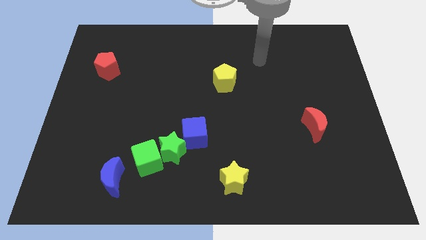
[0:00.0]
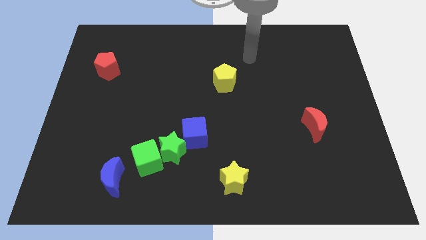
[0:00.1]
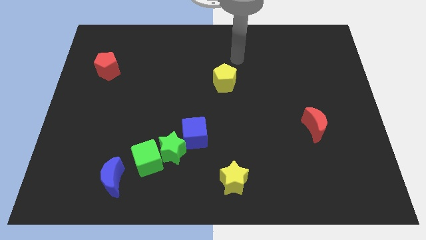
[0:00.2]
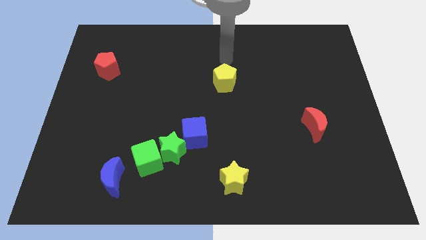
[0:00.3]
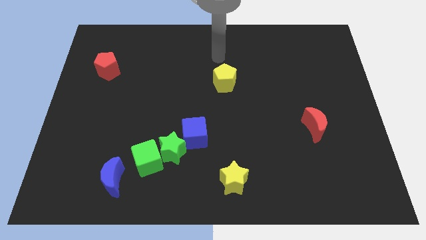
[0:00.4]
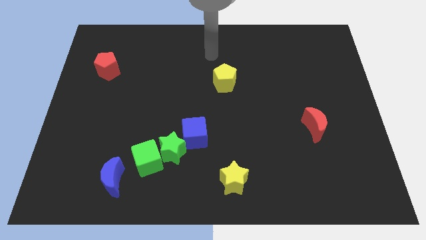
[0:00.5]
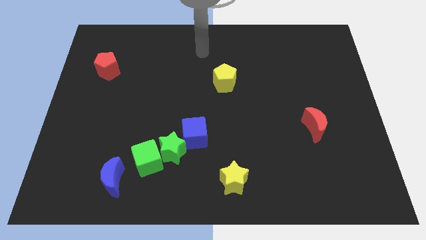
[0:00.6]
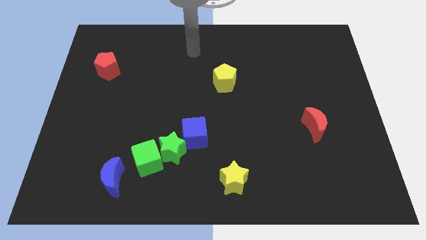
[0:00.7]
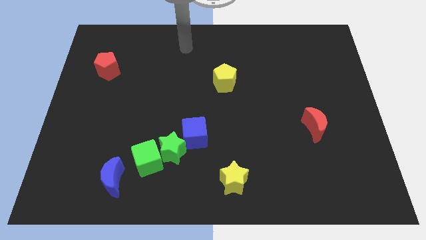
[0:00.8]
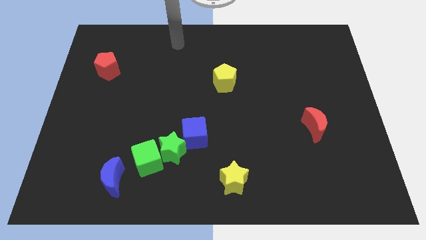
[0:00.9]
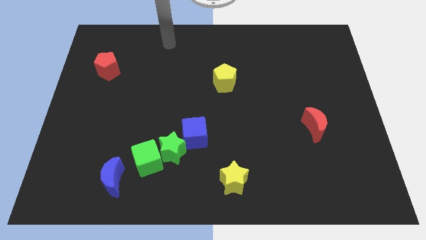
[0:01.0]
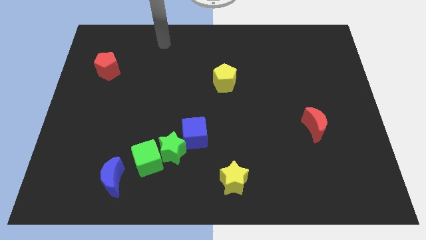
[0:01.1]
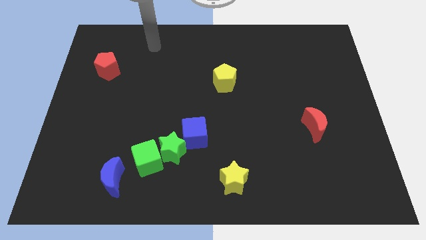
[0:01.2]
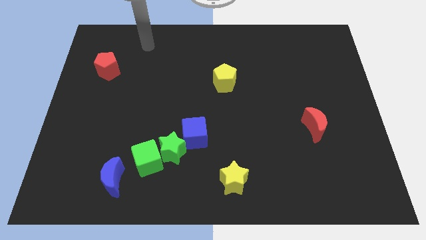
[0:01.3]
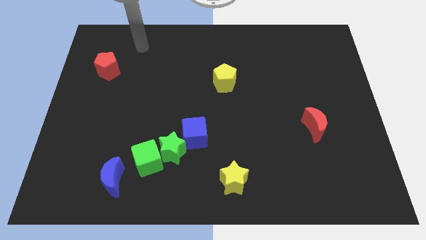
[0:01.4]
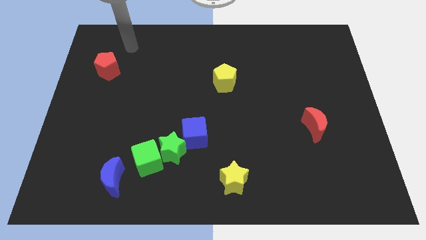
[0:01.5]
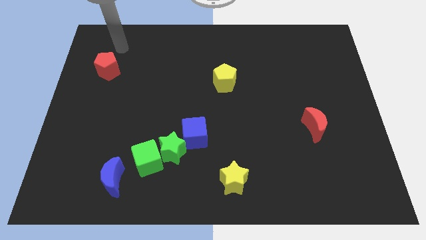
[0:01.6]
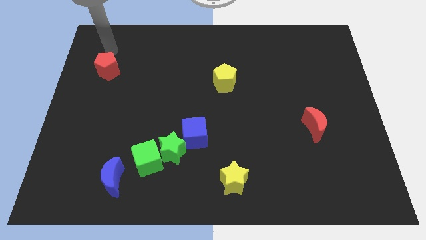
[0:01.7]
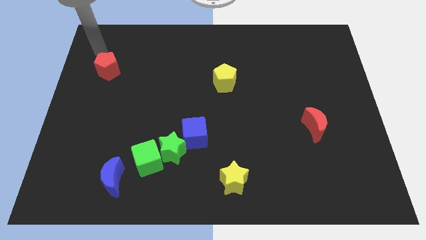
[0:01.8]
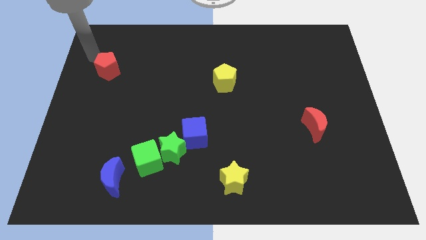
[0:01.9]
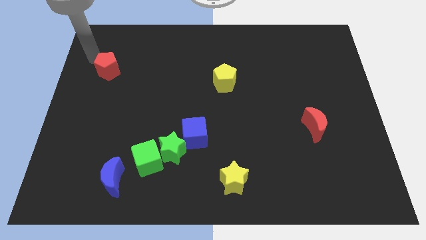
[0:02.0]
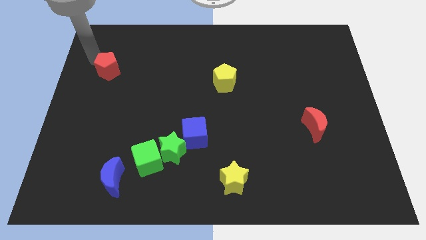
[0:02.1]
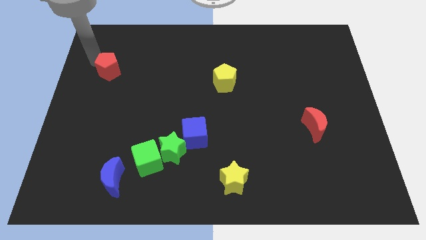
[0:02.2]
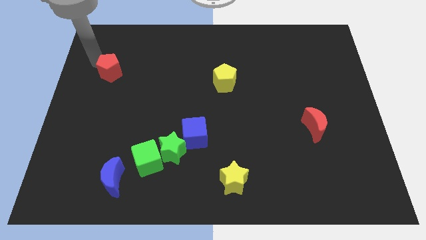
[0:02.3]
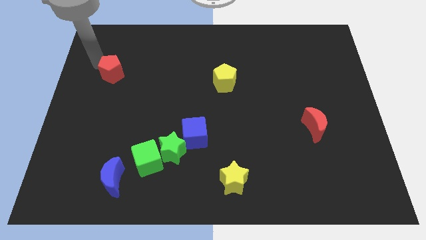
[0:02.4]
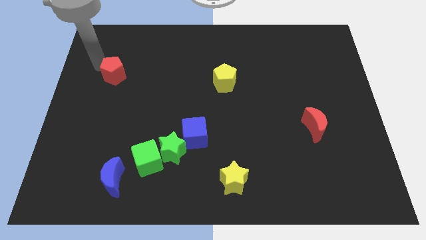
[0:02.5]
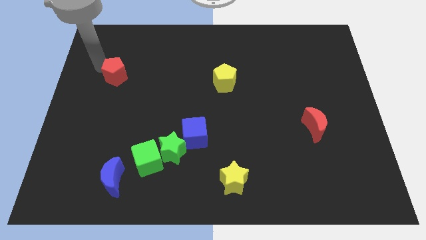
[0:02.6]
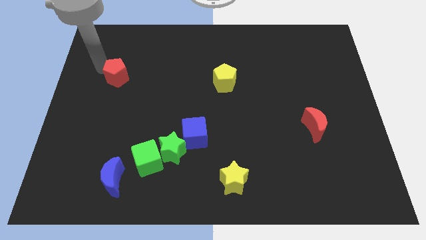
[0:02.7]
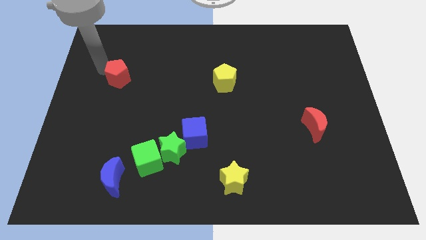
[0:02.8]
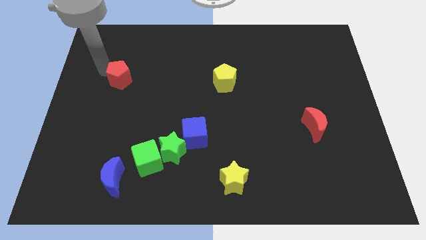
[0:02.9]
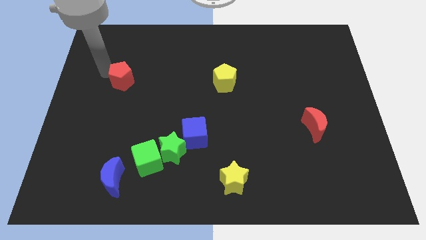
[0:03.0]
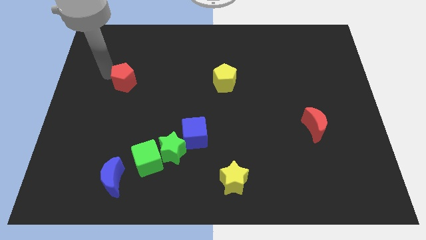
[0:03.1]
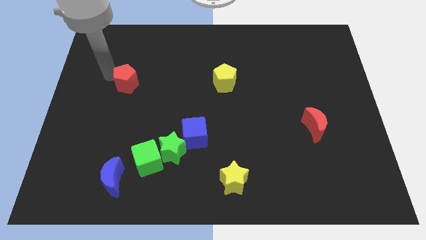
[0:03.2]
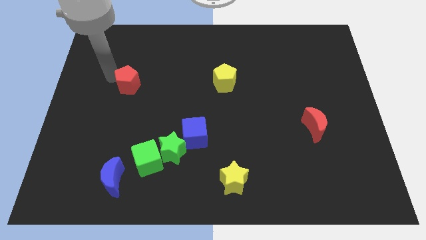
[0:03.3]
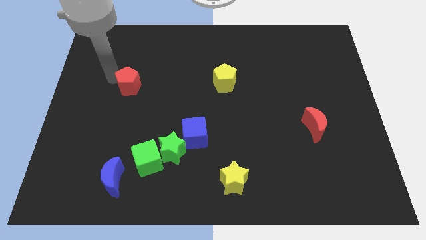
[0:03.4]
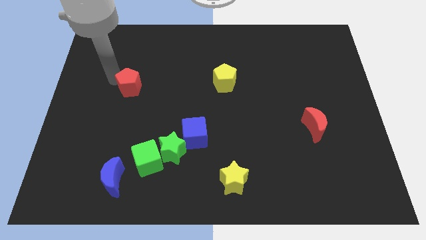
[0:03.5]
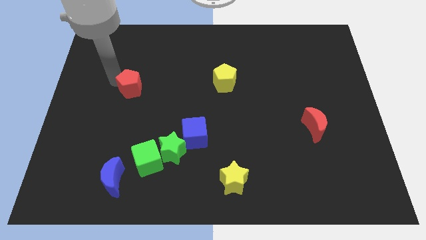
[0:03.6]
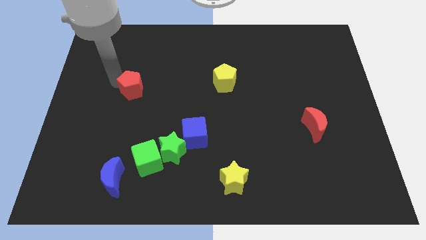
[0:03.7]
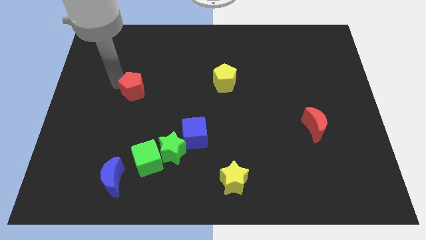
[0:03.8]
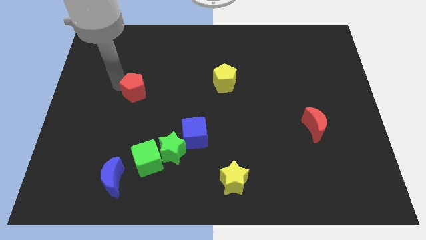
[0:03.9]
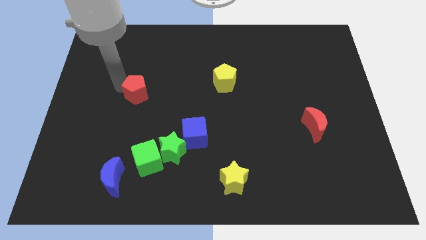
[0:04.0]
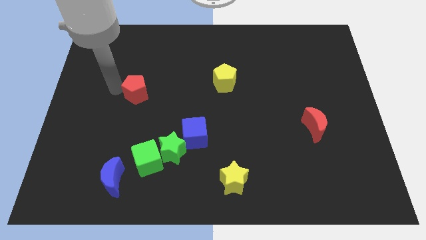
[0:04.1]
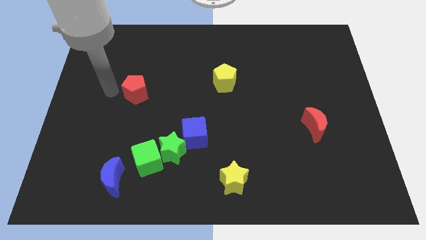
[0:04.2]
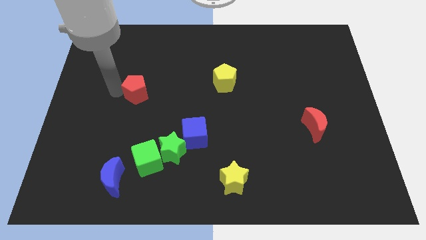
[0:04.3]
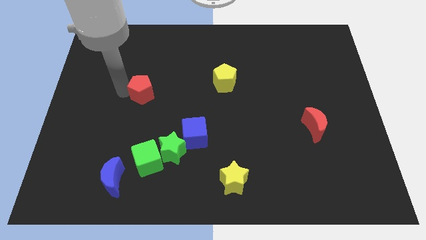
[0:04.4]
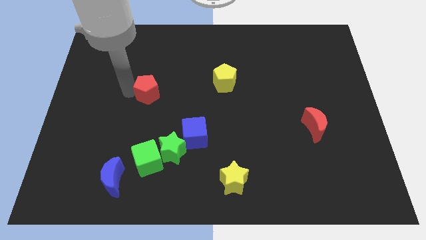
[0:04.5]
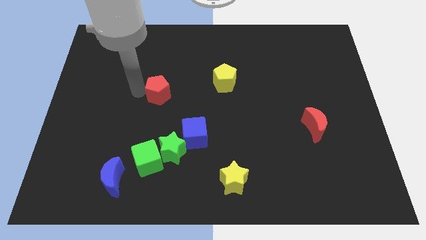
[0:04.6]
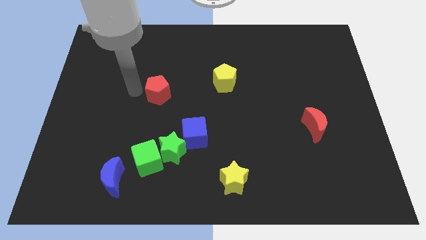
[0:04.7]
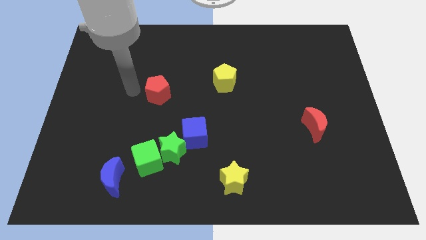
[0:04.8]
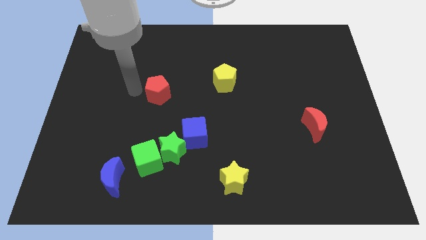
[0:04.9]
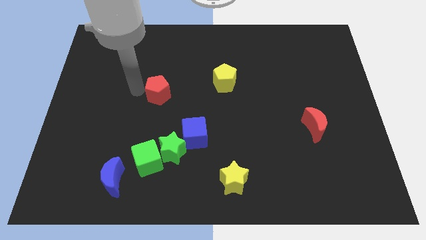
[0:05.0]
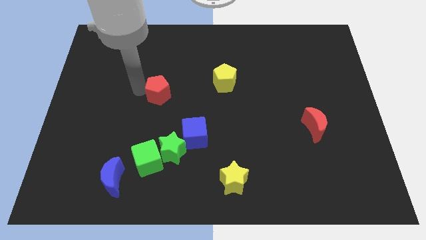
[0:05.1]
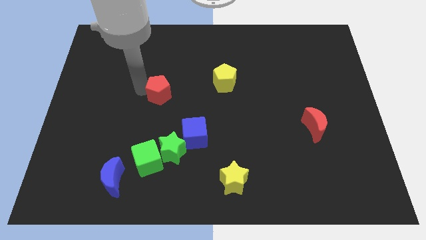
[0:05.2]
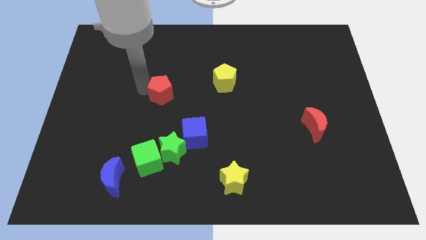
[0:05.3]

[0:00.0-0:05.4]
push the red pentagon to the middle

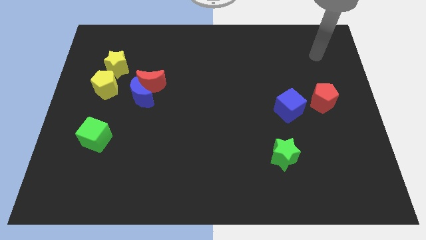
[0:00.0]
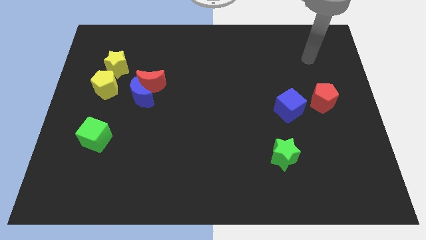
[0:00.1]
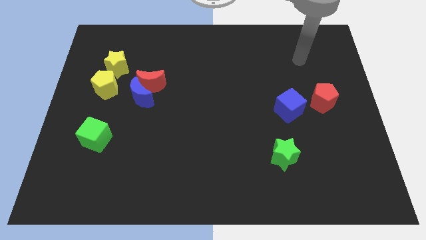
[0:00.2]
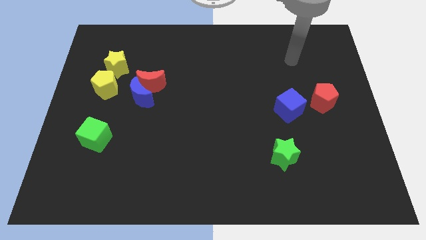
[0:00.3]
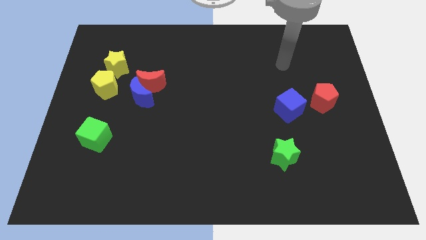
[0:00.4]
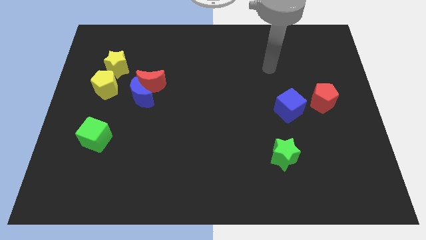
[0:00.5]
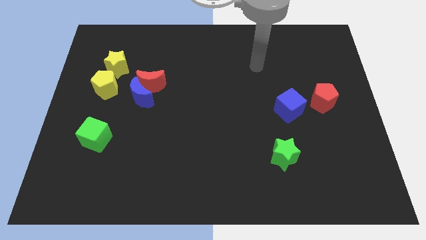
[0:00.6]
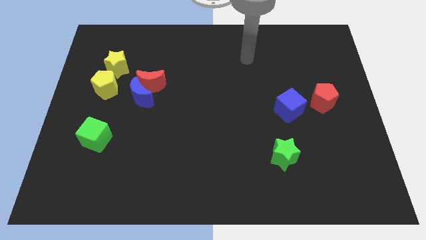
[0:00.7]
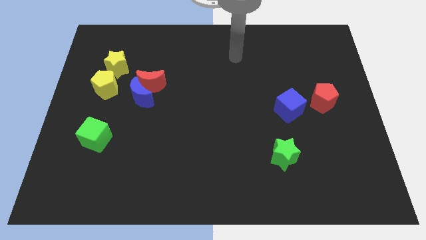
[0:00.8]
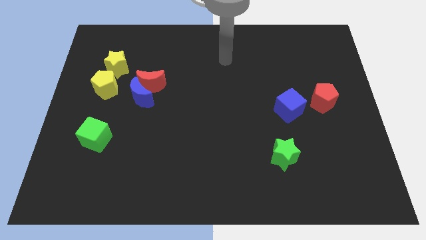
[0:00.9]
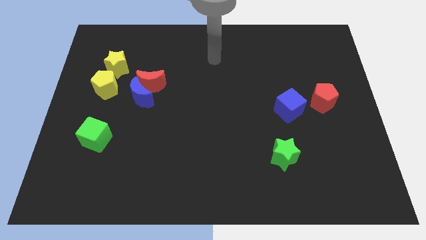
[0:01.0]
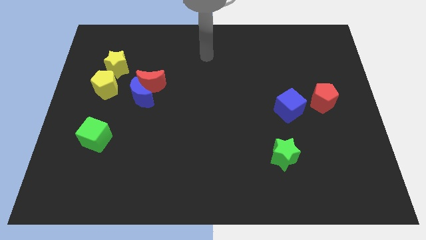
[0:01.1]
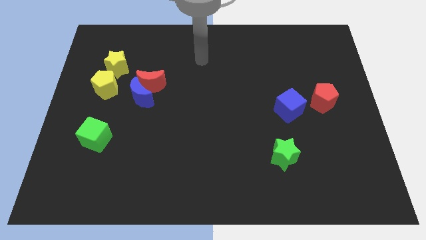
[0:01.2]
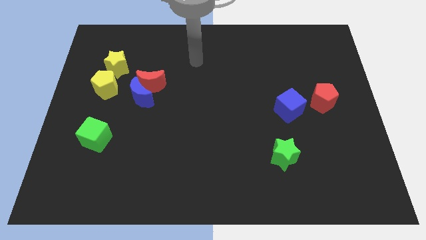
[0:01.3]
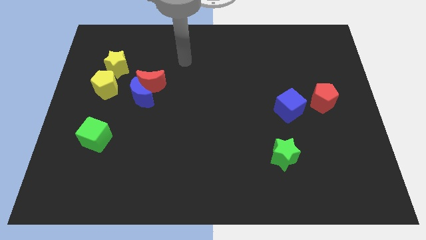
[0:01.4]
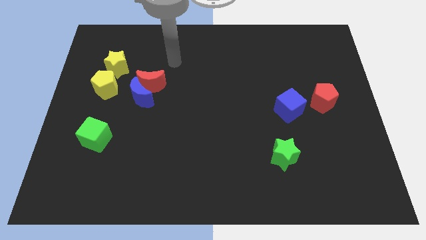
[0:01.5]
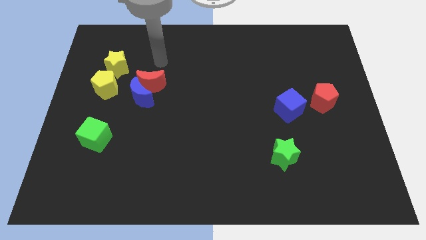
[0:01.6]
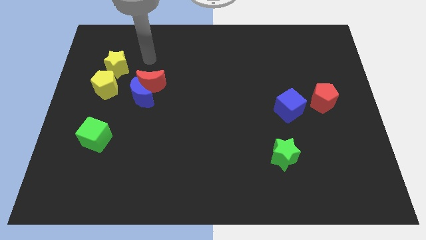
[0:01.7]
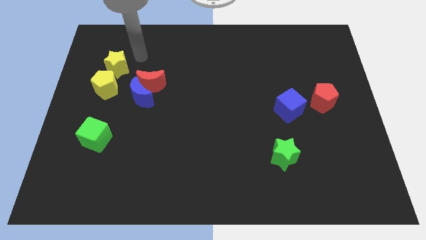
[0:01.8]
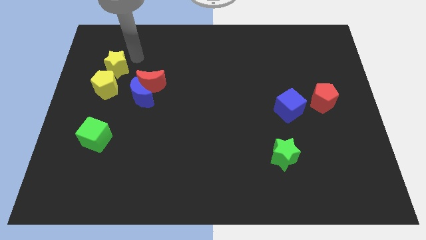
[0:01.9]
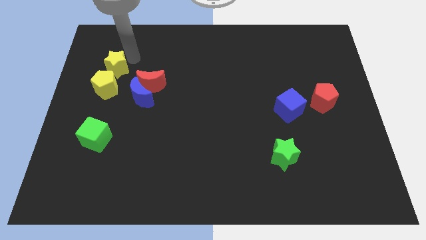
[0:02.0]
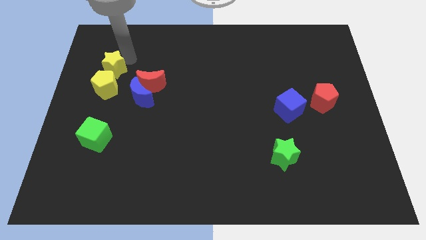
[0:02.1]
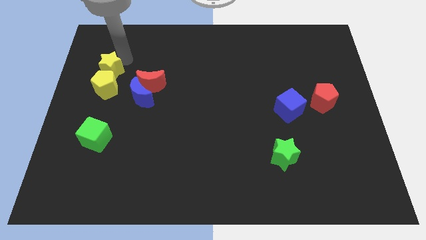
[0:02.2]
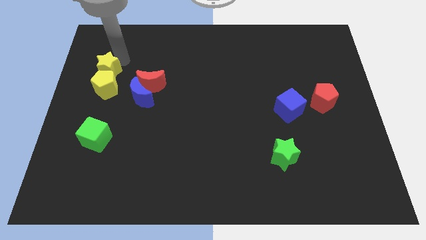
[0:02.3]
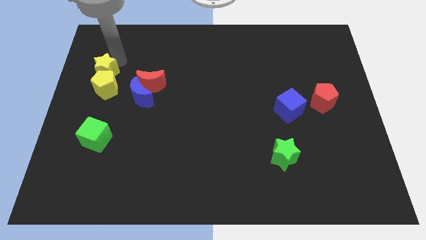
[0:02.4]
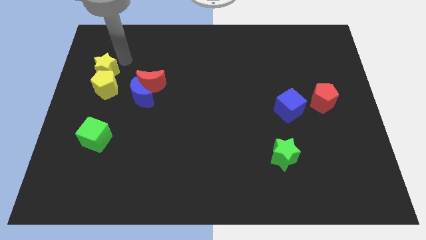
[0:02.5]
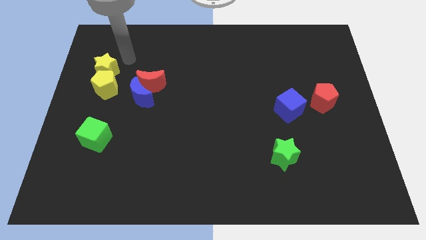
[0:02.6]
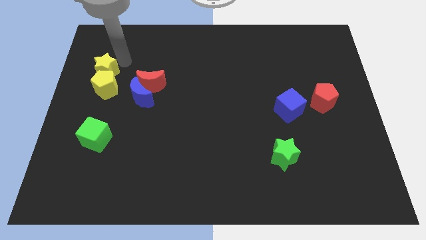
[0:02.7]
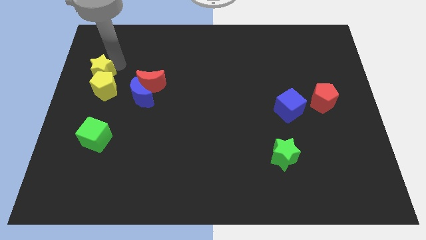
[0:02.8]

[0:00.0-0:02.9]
move the yellow star to the left side of the board
